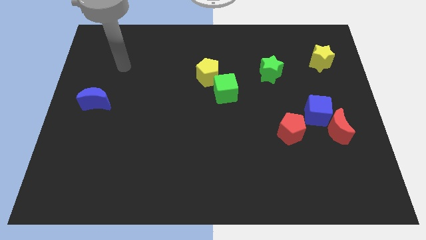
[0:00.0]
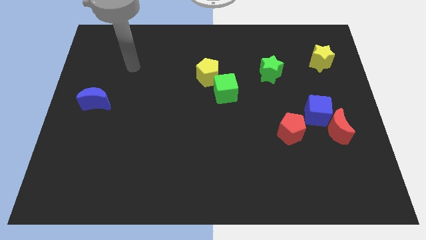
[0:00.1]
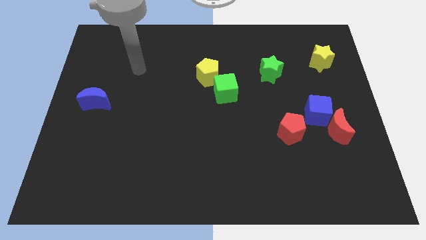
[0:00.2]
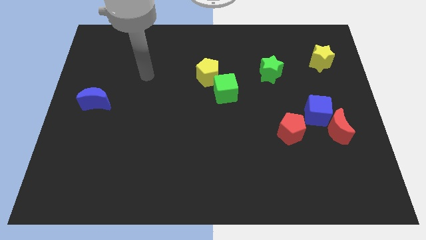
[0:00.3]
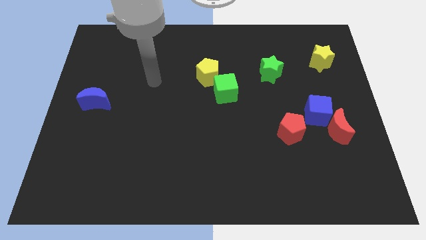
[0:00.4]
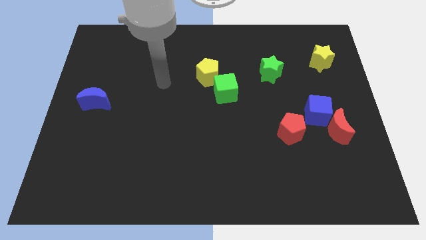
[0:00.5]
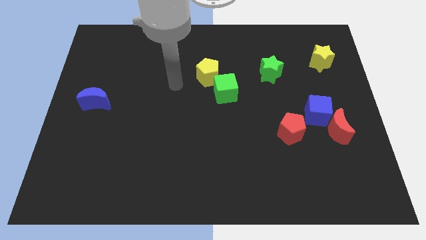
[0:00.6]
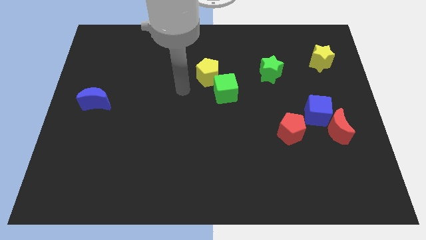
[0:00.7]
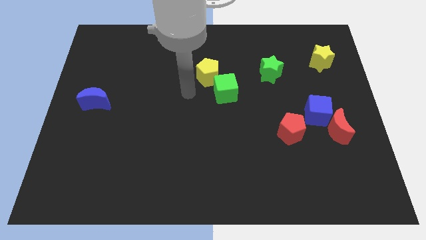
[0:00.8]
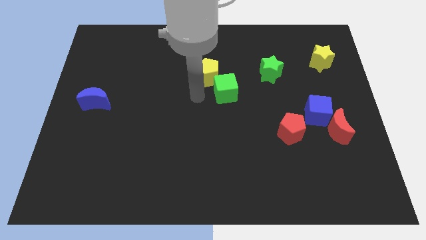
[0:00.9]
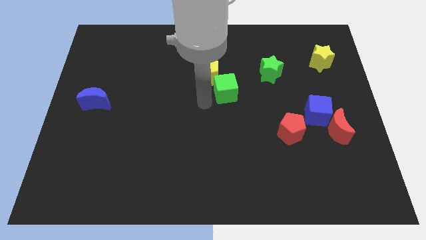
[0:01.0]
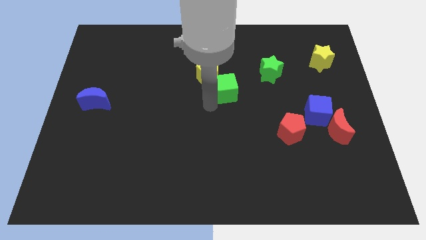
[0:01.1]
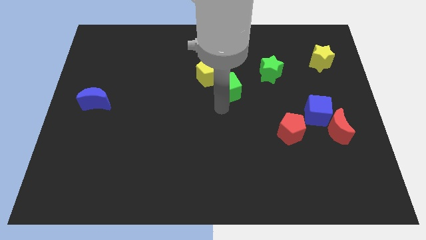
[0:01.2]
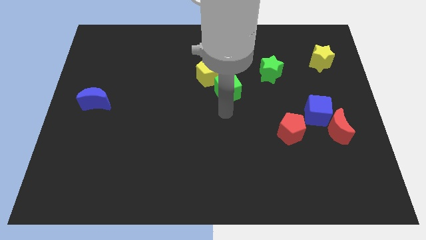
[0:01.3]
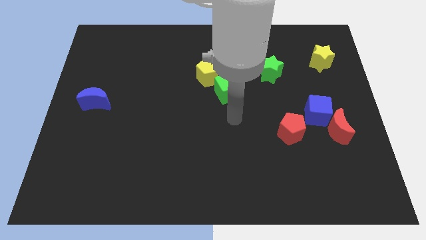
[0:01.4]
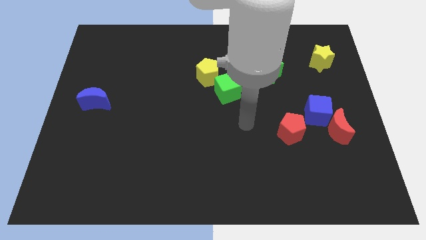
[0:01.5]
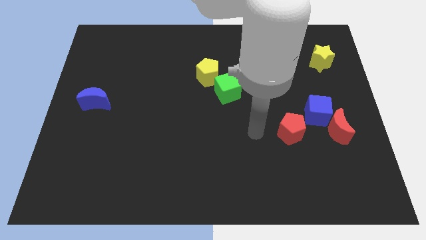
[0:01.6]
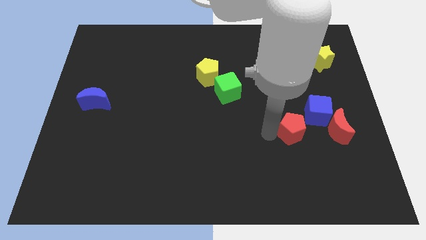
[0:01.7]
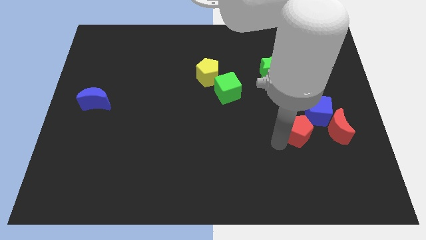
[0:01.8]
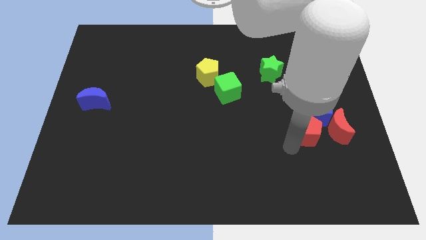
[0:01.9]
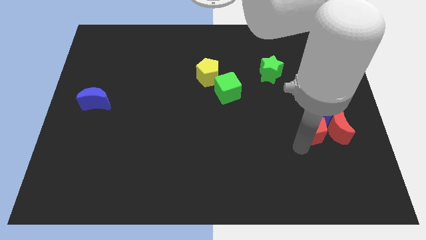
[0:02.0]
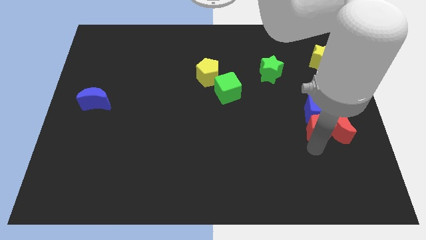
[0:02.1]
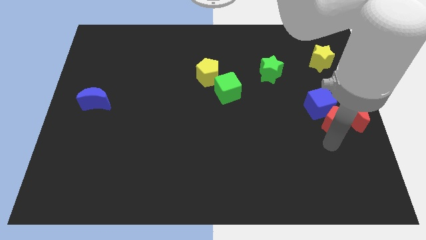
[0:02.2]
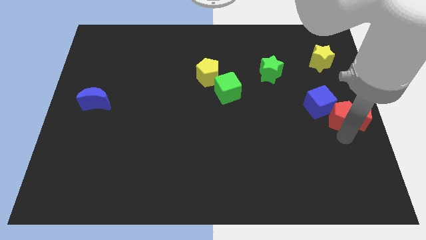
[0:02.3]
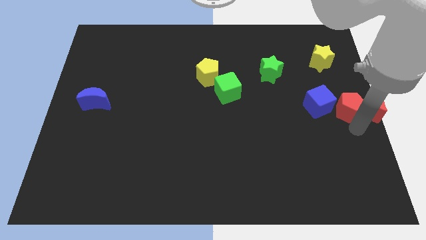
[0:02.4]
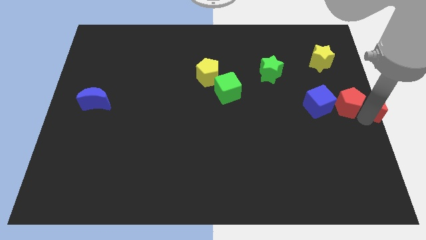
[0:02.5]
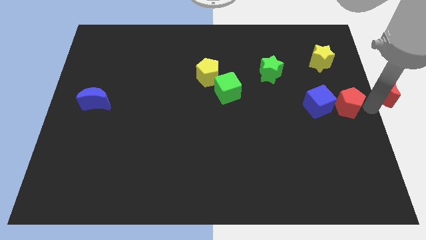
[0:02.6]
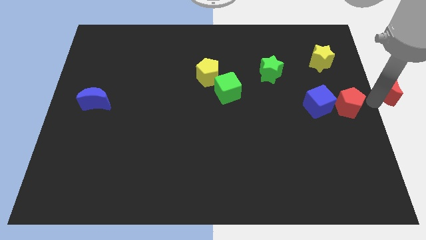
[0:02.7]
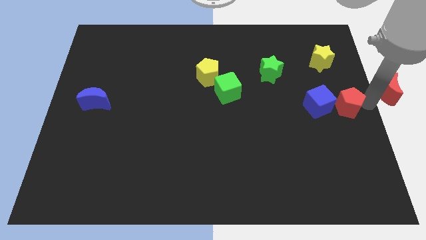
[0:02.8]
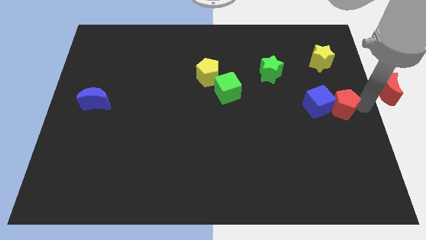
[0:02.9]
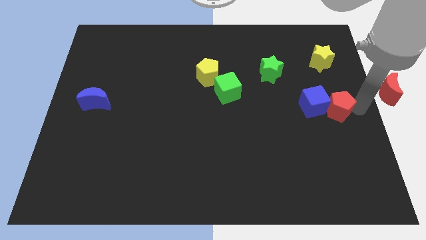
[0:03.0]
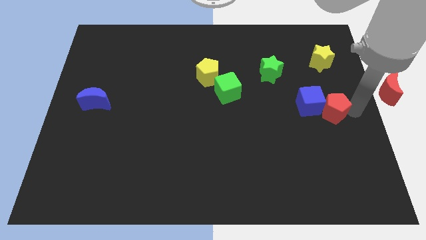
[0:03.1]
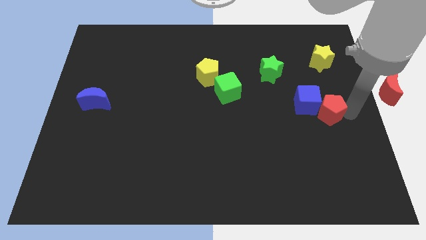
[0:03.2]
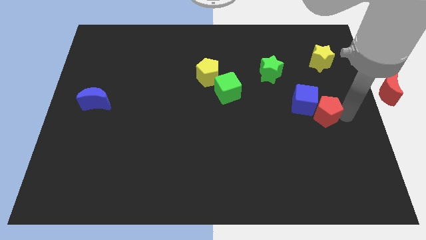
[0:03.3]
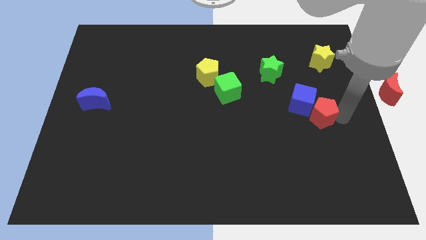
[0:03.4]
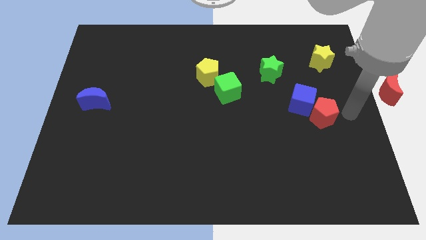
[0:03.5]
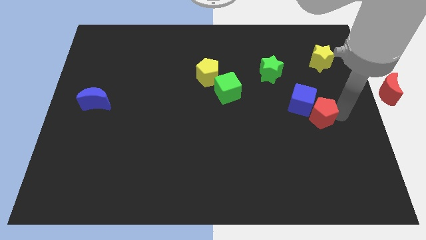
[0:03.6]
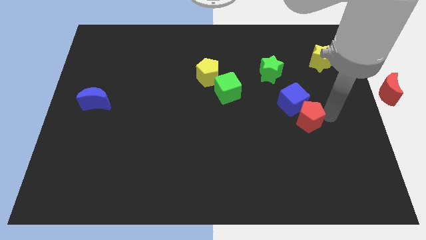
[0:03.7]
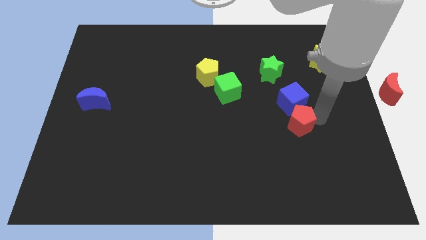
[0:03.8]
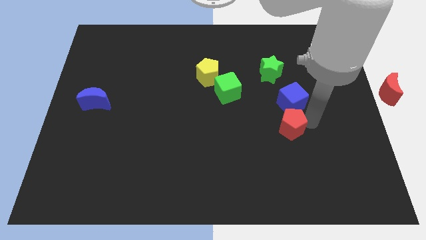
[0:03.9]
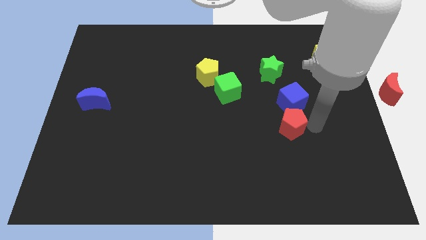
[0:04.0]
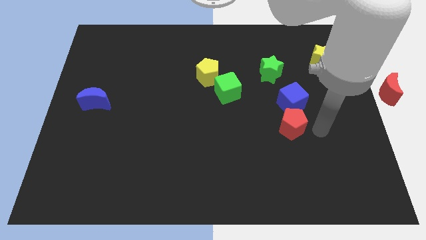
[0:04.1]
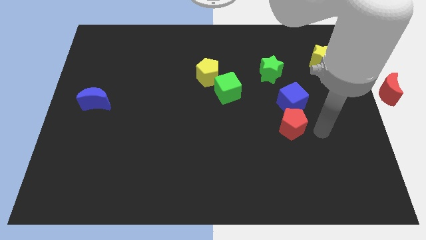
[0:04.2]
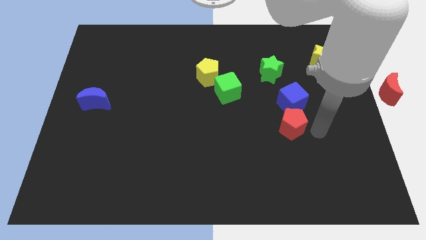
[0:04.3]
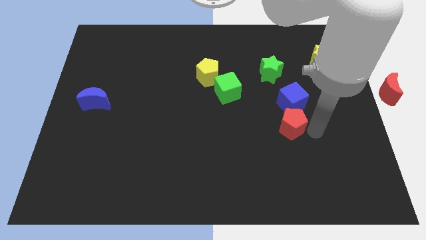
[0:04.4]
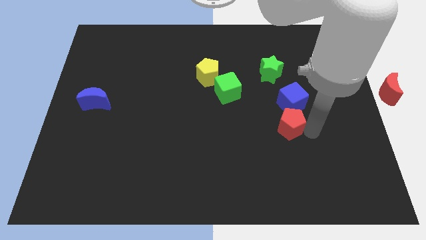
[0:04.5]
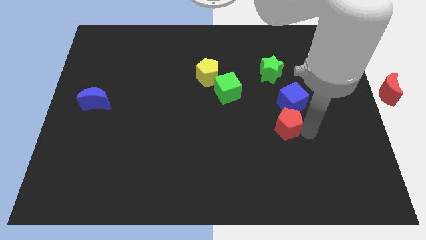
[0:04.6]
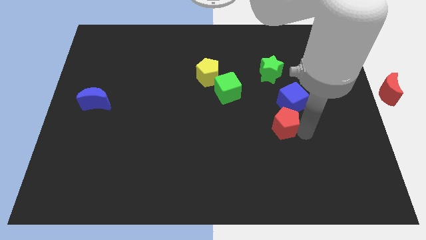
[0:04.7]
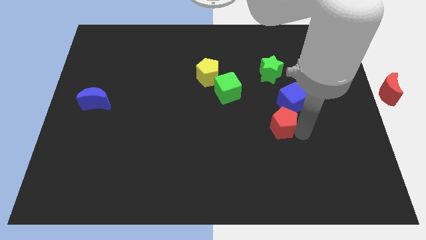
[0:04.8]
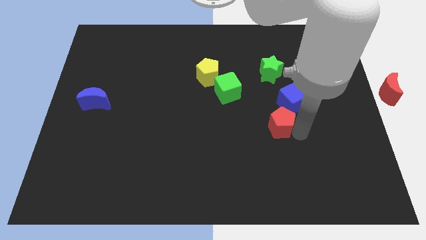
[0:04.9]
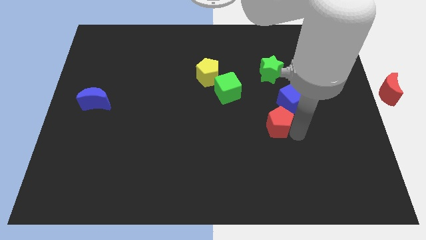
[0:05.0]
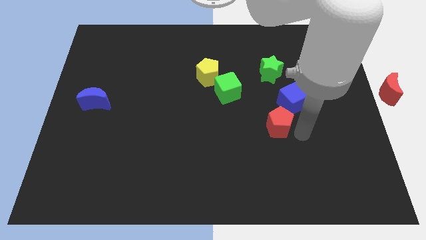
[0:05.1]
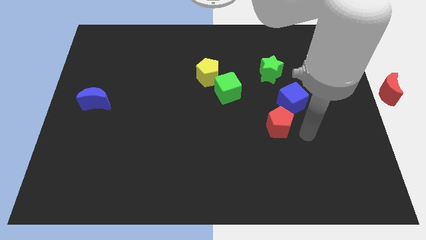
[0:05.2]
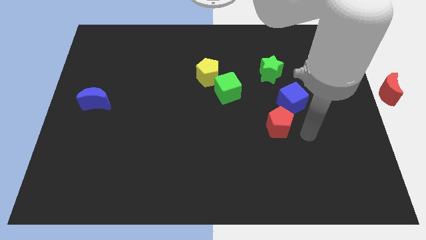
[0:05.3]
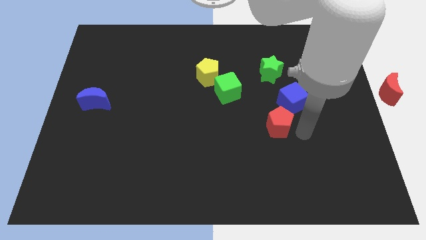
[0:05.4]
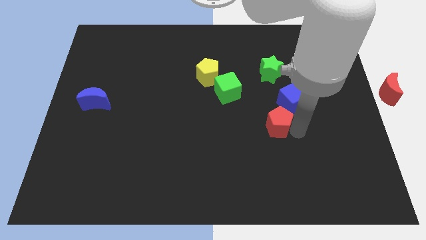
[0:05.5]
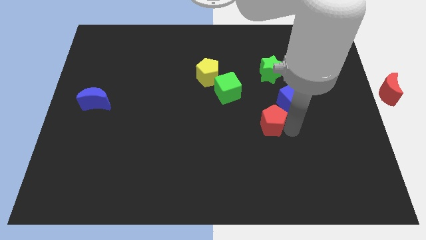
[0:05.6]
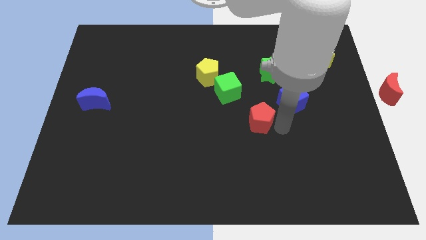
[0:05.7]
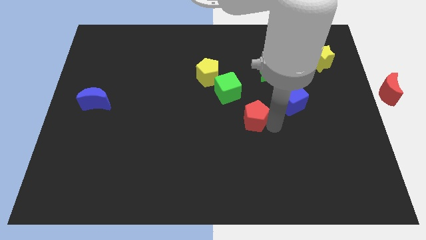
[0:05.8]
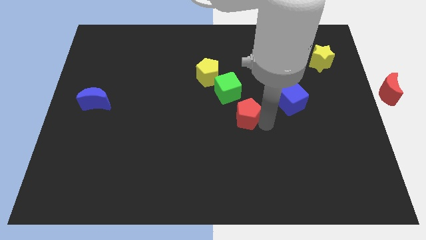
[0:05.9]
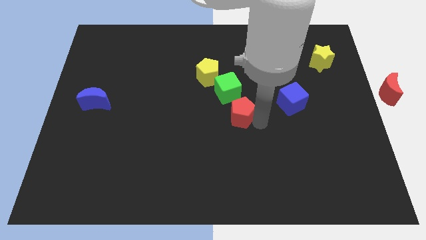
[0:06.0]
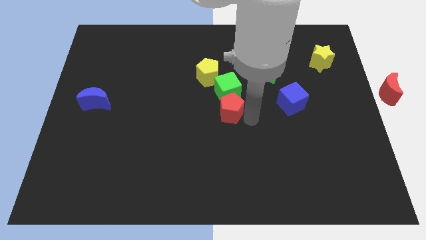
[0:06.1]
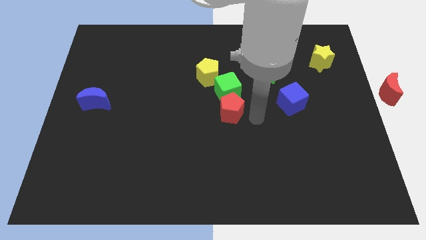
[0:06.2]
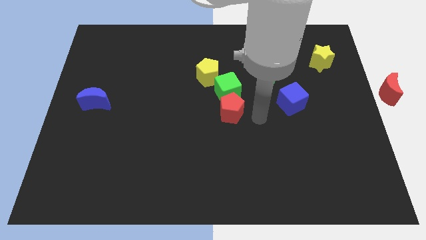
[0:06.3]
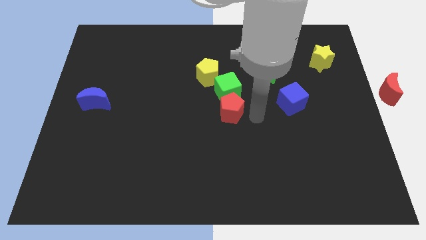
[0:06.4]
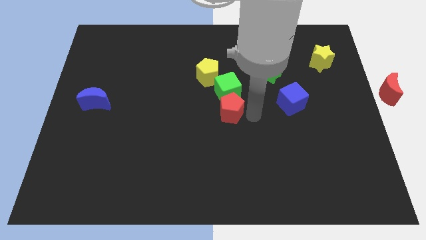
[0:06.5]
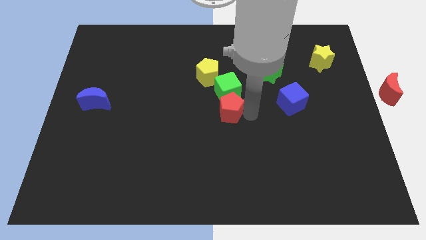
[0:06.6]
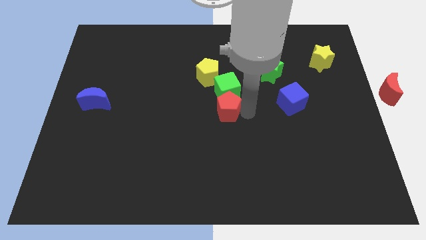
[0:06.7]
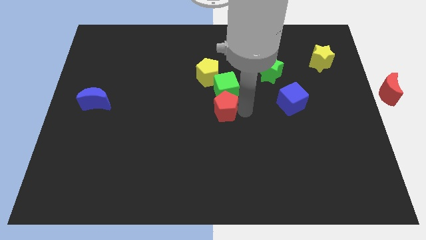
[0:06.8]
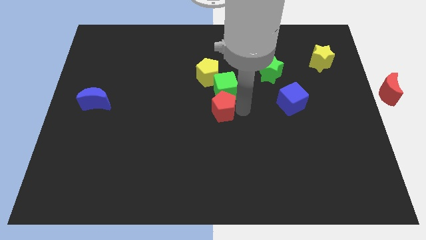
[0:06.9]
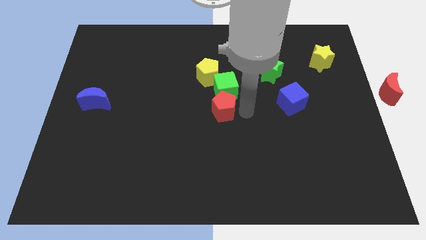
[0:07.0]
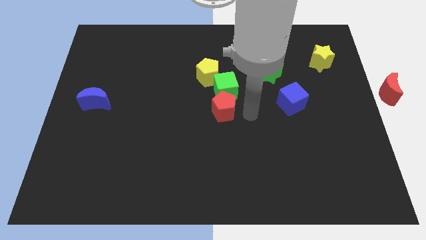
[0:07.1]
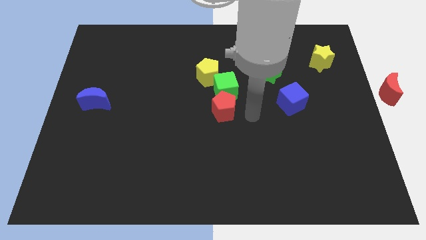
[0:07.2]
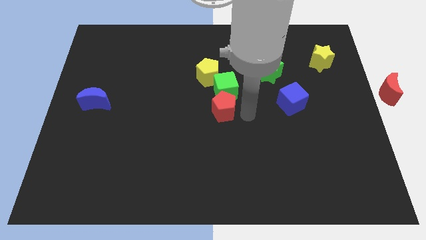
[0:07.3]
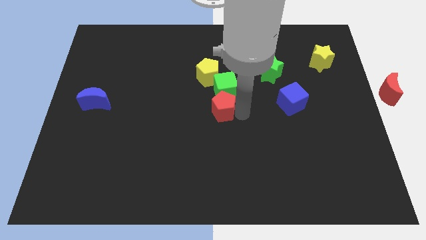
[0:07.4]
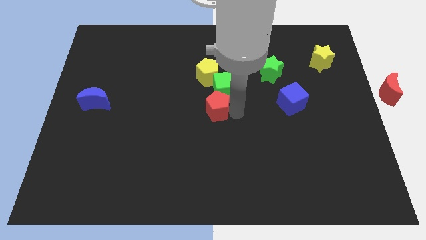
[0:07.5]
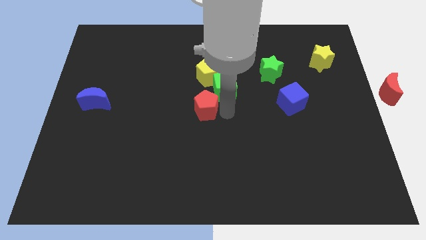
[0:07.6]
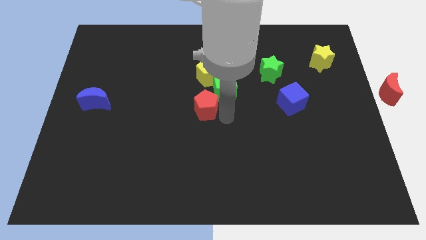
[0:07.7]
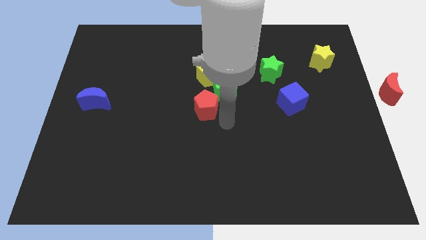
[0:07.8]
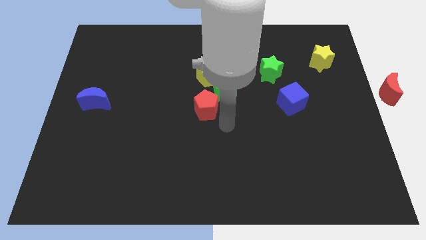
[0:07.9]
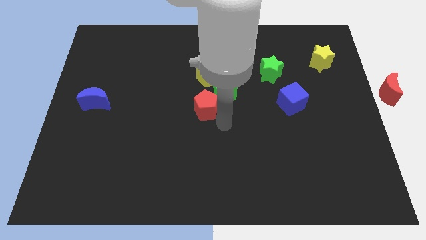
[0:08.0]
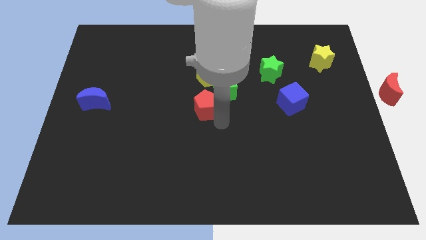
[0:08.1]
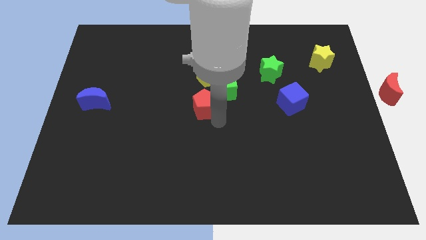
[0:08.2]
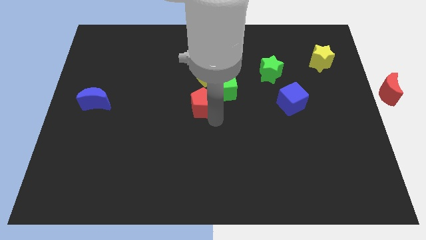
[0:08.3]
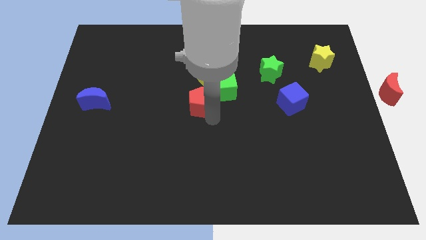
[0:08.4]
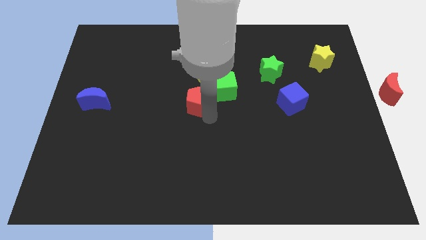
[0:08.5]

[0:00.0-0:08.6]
push the red pentagon diagonally down and to the left of the yellow pentagon
